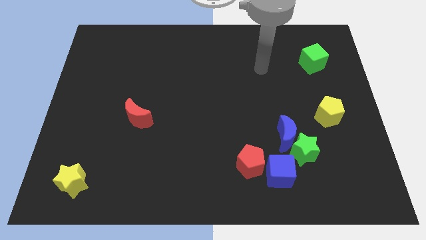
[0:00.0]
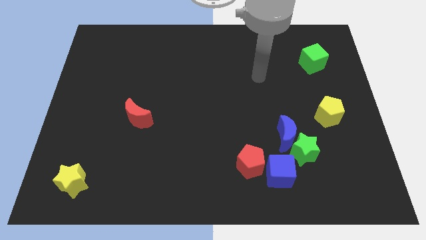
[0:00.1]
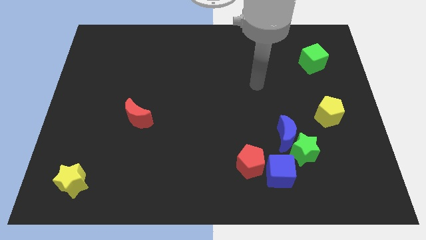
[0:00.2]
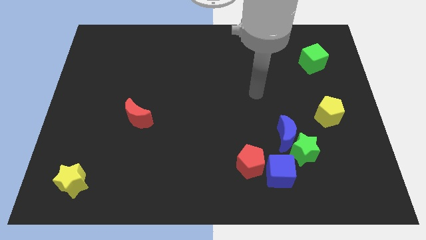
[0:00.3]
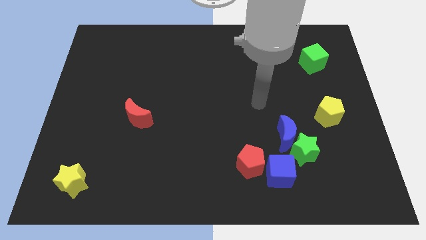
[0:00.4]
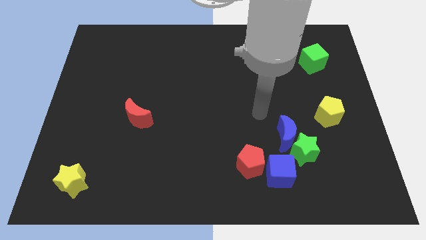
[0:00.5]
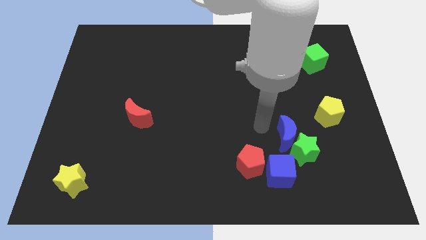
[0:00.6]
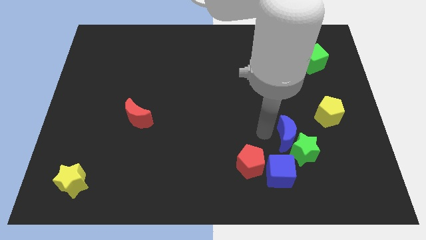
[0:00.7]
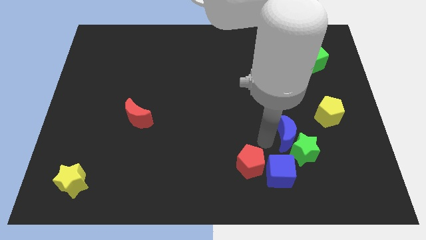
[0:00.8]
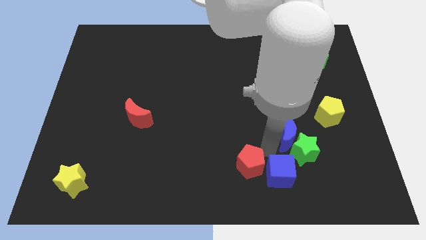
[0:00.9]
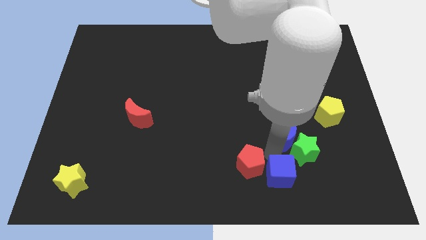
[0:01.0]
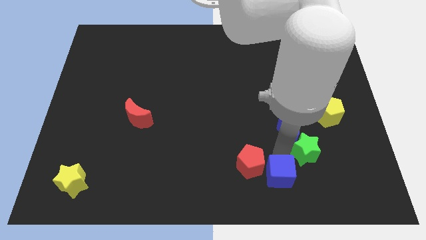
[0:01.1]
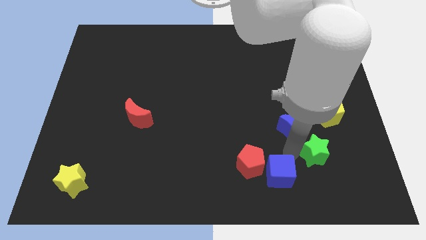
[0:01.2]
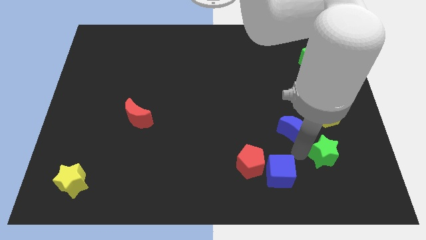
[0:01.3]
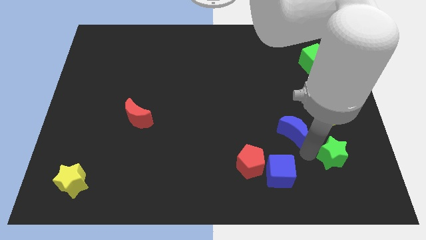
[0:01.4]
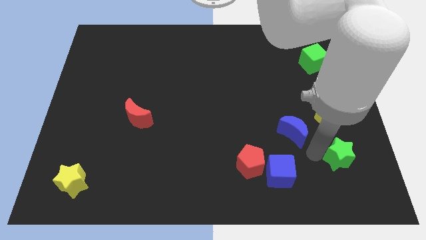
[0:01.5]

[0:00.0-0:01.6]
pull the green star apart from the blue moon and blue cube

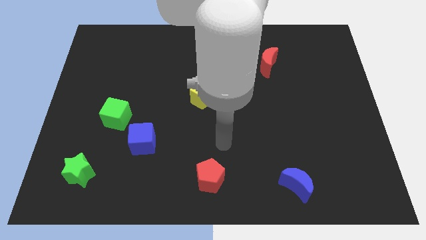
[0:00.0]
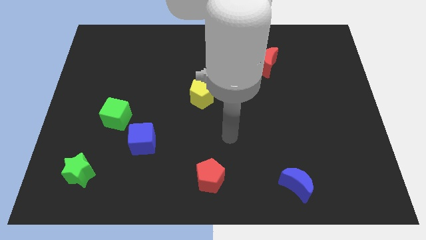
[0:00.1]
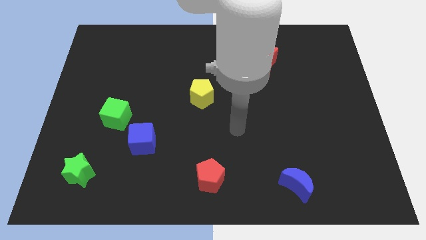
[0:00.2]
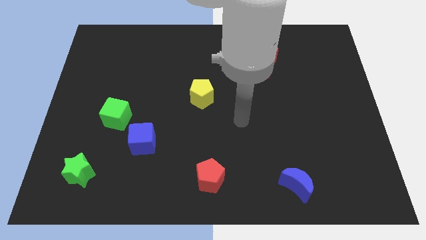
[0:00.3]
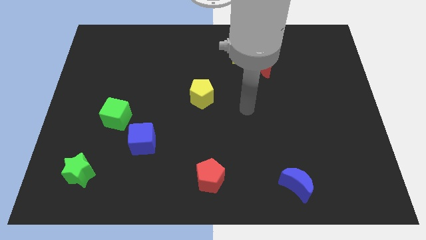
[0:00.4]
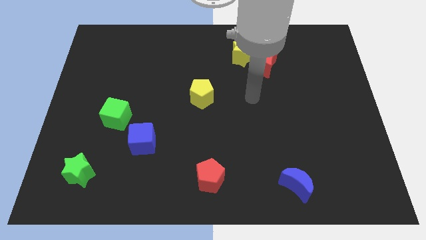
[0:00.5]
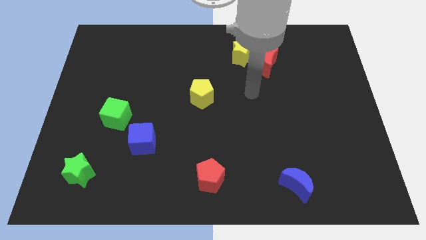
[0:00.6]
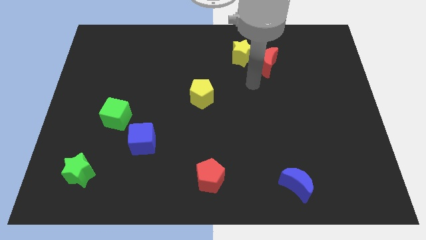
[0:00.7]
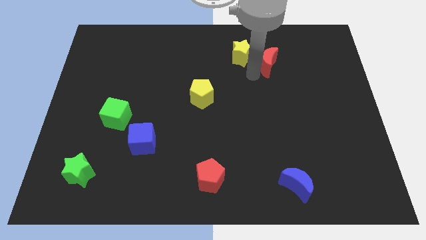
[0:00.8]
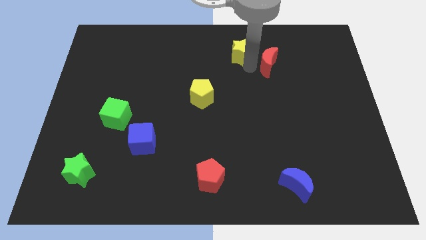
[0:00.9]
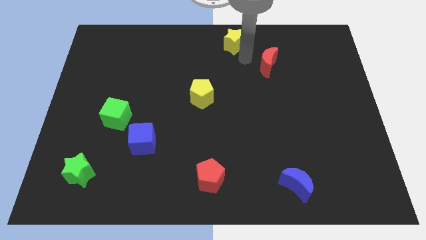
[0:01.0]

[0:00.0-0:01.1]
separate the red moon from the yellow star

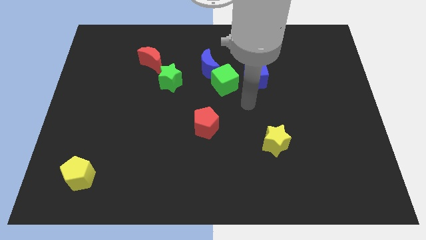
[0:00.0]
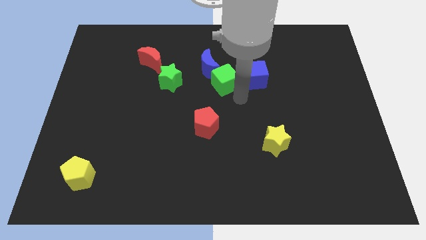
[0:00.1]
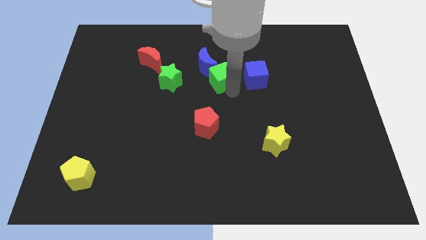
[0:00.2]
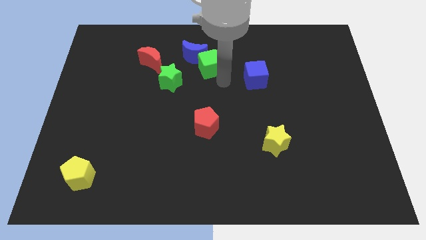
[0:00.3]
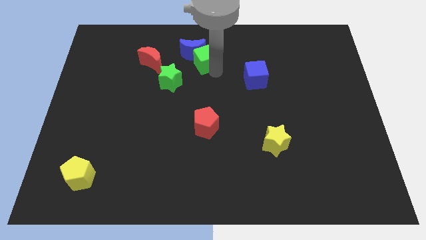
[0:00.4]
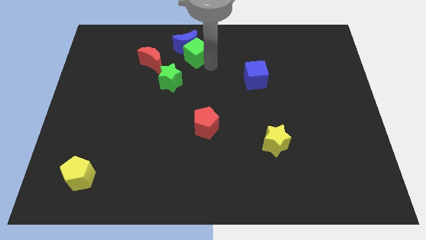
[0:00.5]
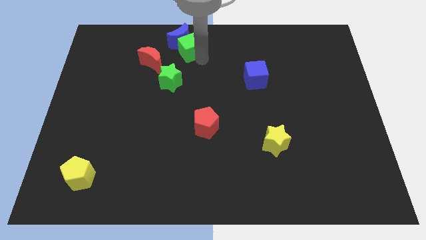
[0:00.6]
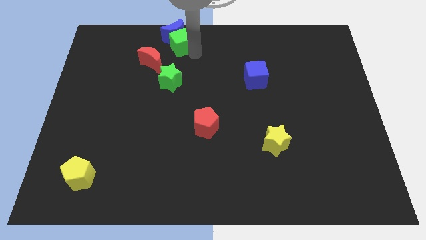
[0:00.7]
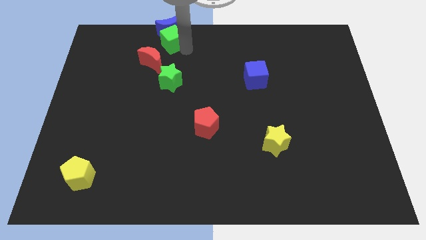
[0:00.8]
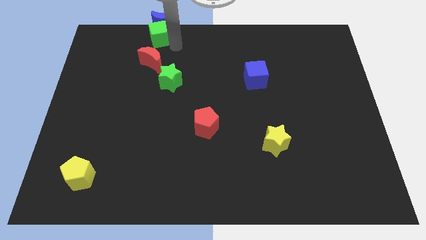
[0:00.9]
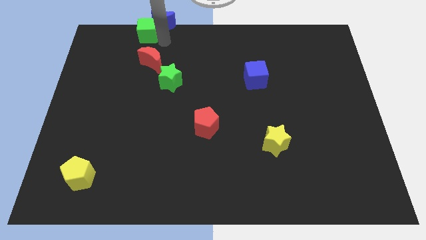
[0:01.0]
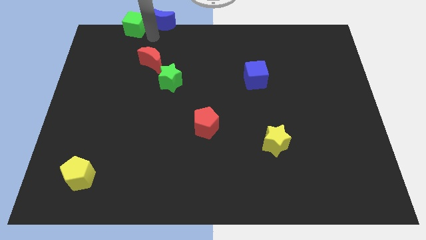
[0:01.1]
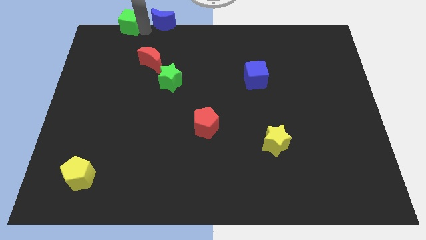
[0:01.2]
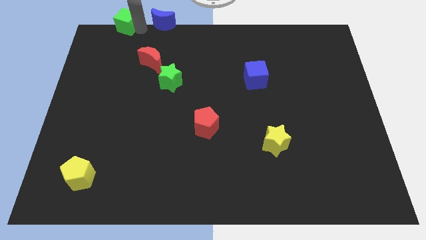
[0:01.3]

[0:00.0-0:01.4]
pull the blue moon apart from the green cube

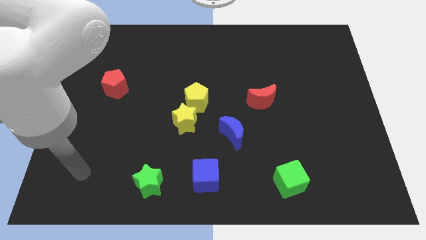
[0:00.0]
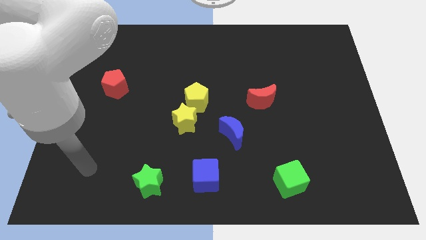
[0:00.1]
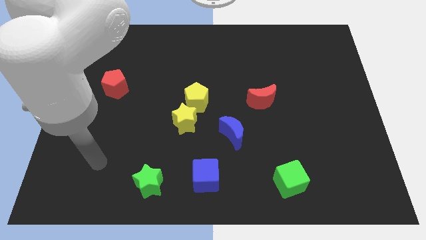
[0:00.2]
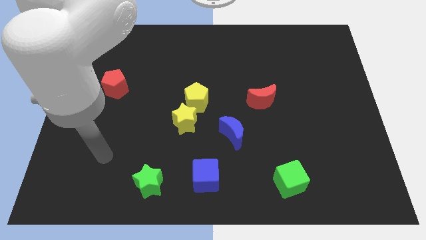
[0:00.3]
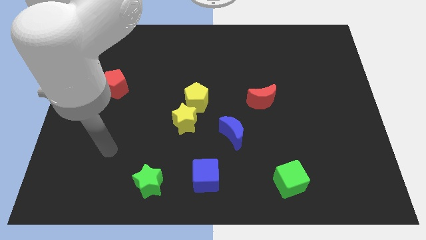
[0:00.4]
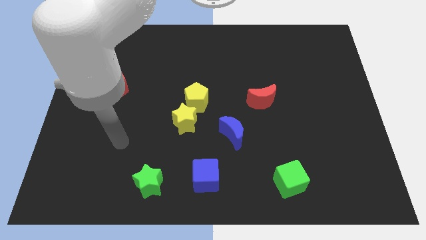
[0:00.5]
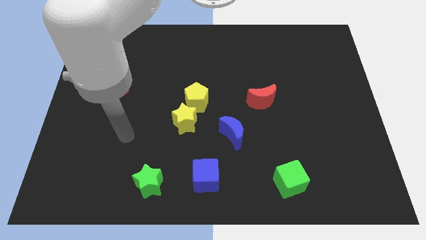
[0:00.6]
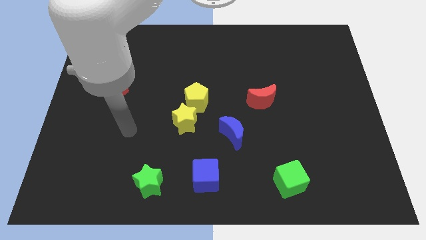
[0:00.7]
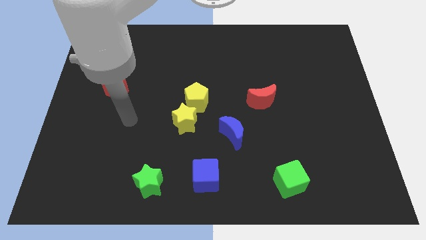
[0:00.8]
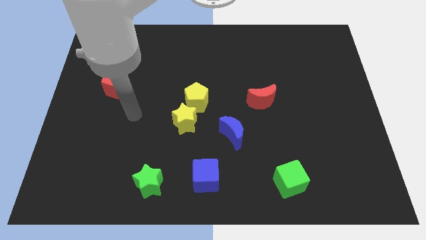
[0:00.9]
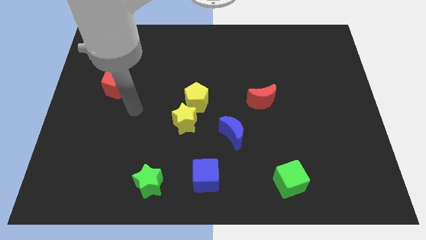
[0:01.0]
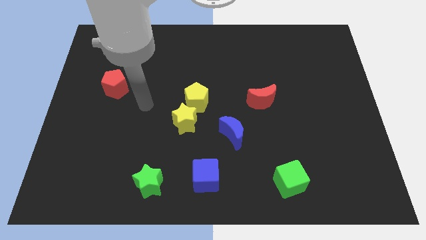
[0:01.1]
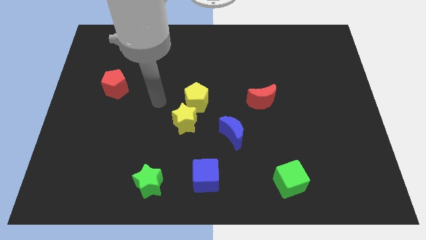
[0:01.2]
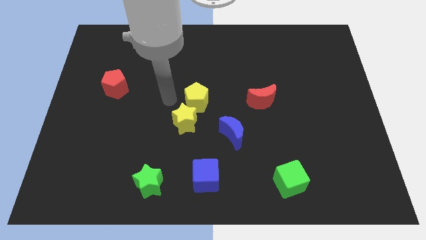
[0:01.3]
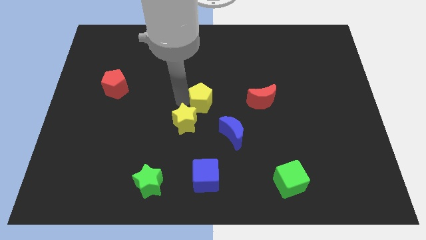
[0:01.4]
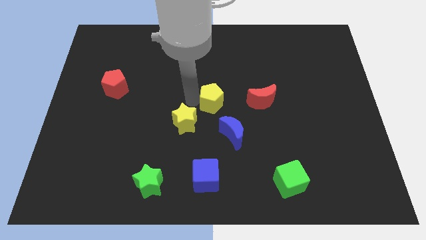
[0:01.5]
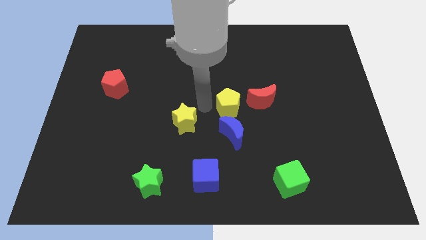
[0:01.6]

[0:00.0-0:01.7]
move the yellow star away from the yellow pentagon

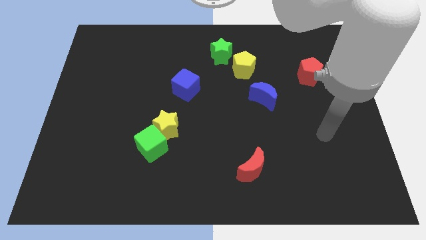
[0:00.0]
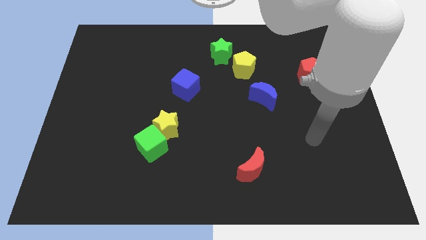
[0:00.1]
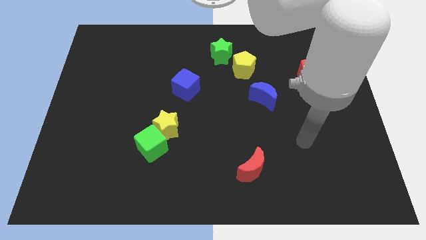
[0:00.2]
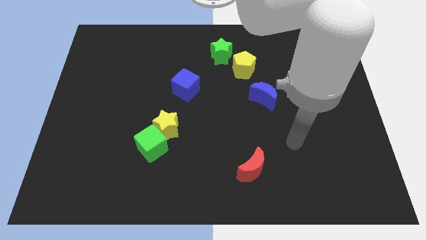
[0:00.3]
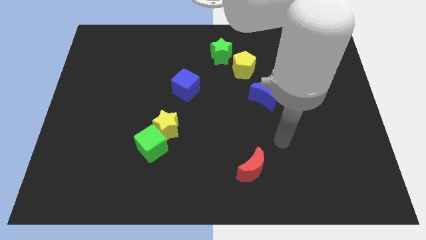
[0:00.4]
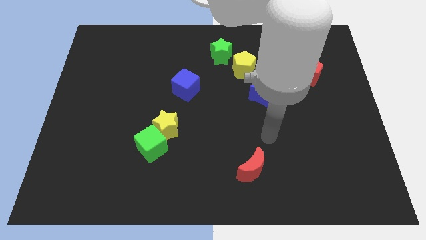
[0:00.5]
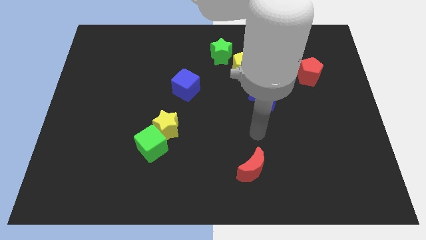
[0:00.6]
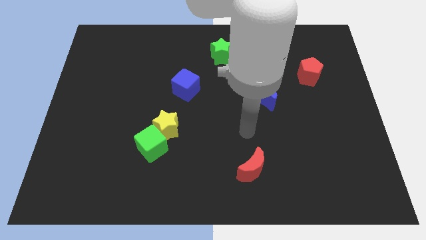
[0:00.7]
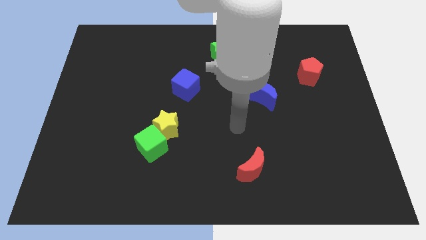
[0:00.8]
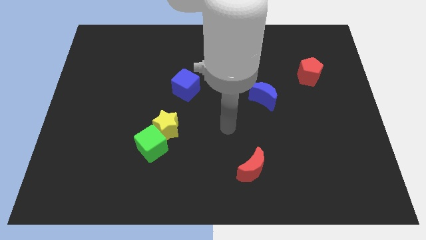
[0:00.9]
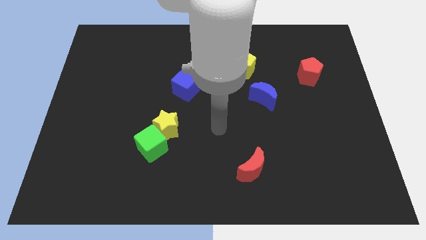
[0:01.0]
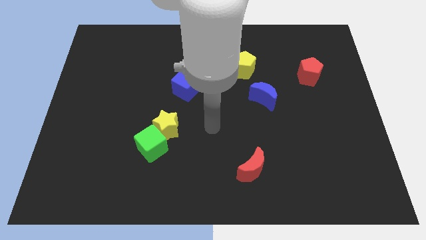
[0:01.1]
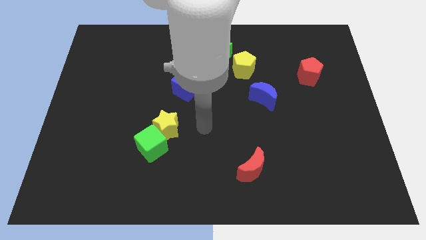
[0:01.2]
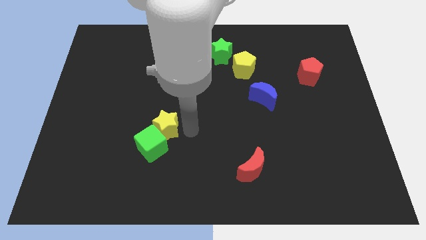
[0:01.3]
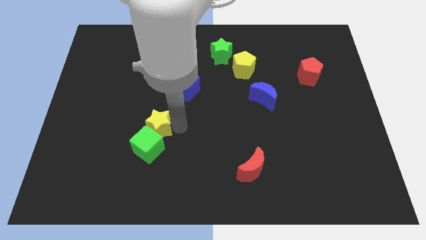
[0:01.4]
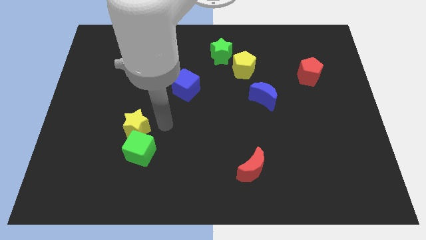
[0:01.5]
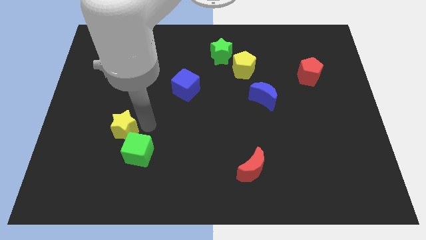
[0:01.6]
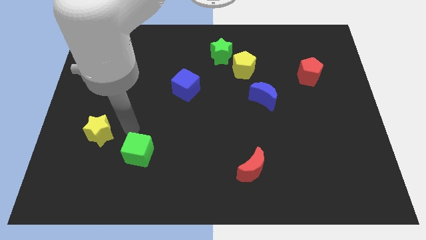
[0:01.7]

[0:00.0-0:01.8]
separate the green cube from the yellow star

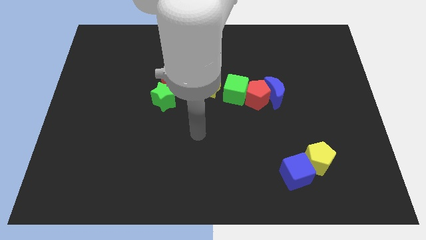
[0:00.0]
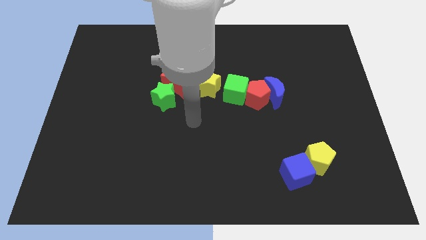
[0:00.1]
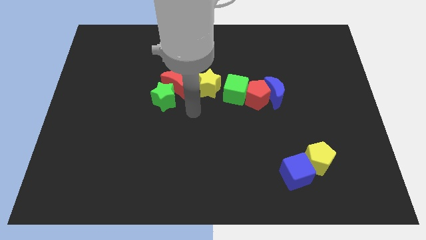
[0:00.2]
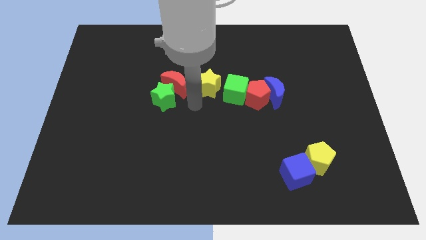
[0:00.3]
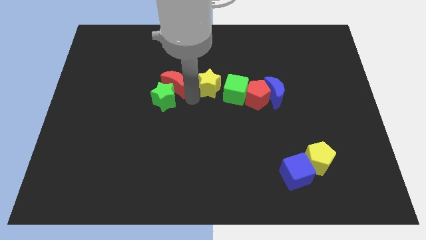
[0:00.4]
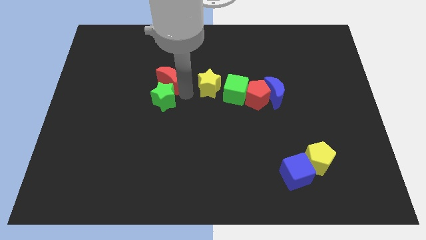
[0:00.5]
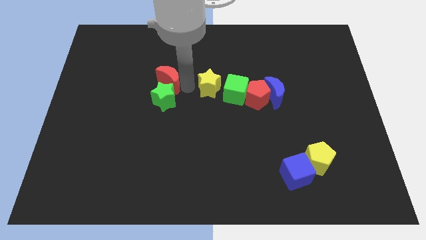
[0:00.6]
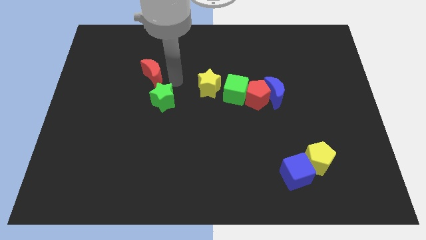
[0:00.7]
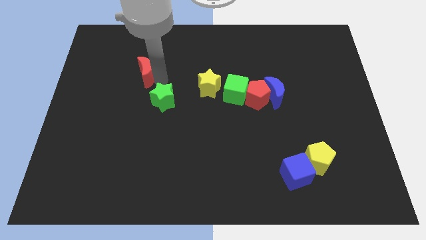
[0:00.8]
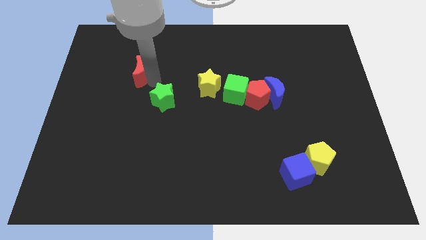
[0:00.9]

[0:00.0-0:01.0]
pull the green star apart from the red moon

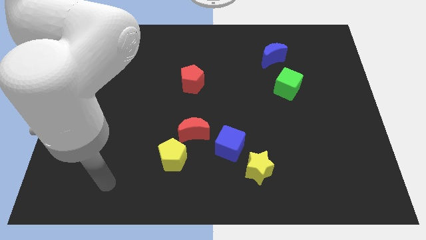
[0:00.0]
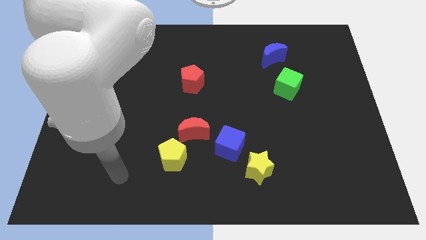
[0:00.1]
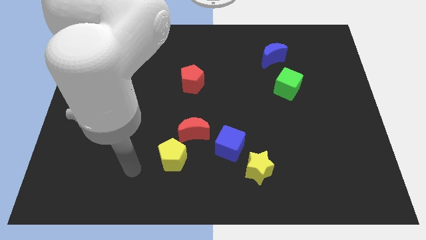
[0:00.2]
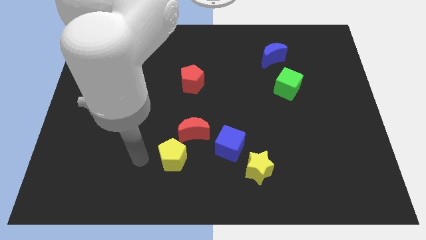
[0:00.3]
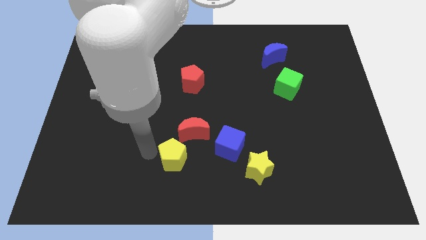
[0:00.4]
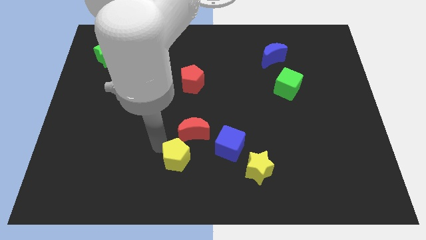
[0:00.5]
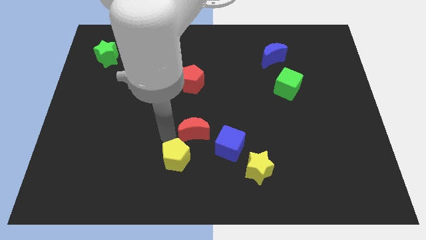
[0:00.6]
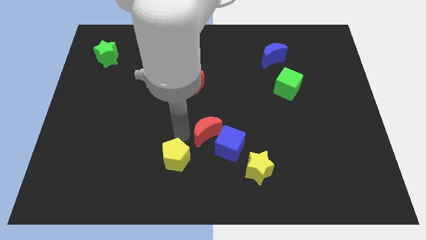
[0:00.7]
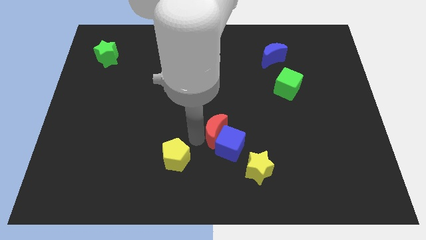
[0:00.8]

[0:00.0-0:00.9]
pull the yellow pentagon apart from the red moon
